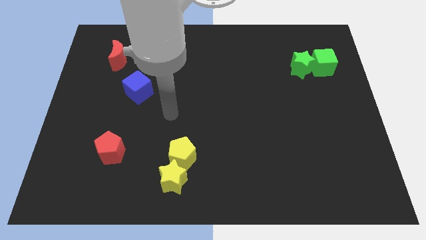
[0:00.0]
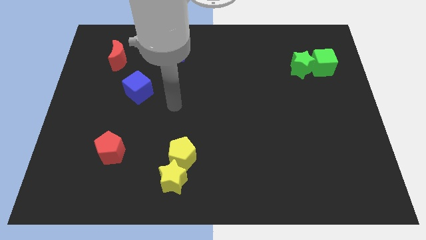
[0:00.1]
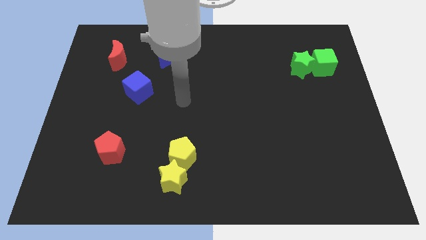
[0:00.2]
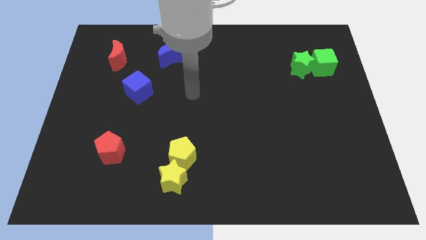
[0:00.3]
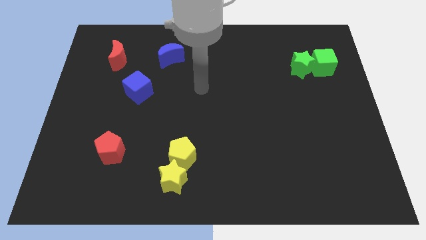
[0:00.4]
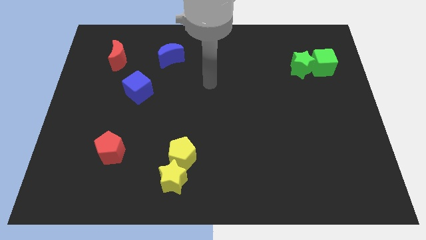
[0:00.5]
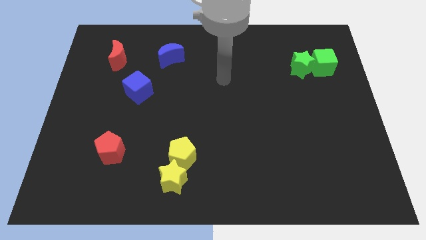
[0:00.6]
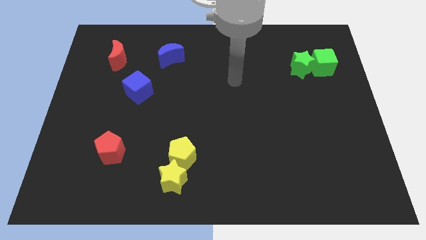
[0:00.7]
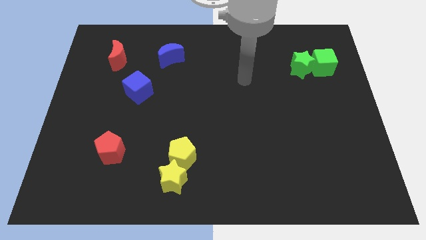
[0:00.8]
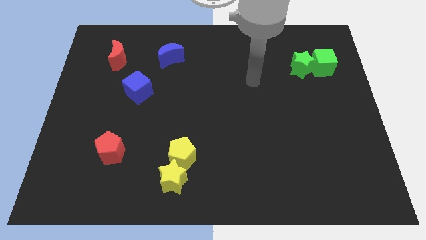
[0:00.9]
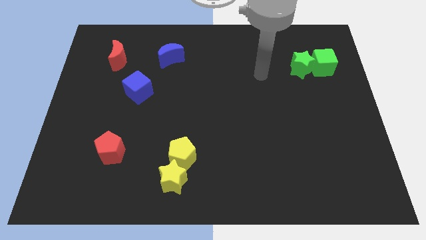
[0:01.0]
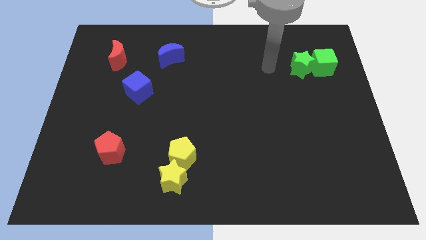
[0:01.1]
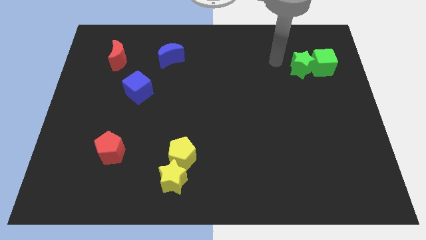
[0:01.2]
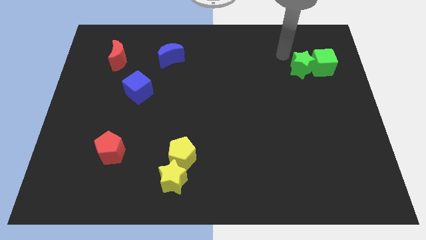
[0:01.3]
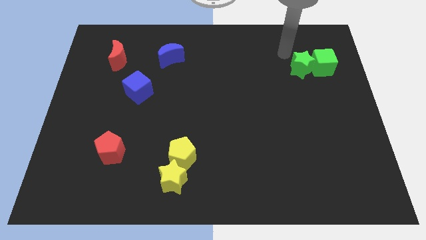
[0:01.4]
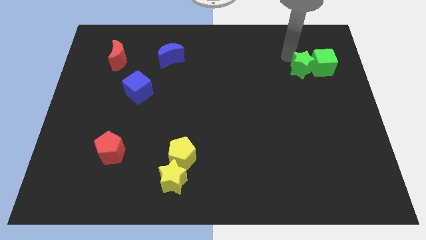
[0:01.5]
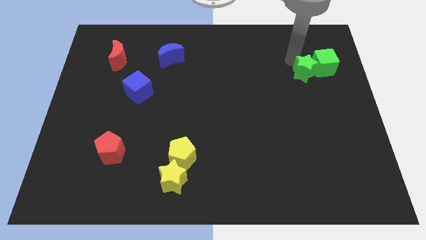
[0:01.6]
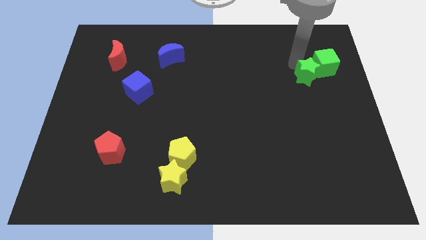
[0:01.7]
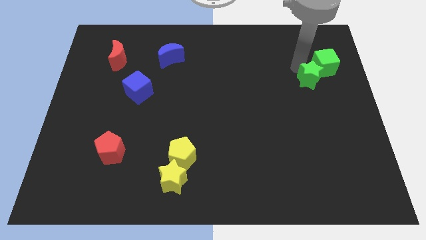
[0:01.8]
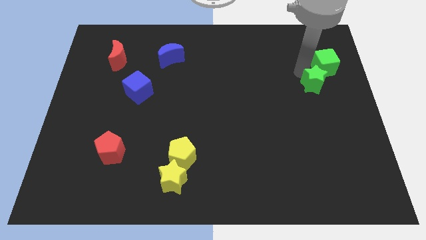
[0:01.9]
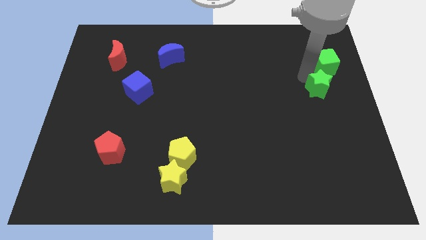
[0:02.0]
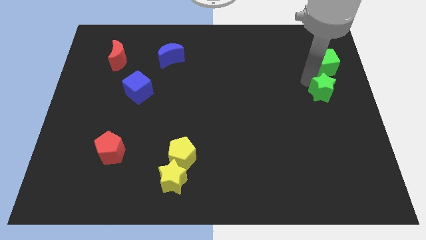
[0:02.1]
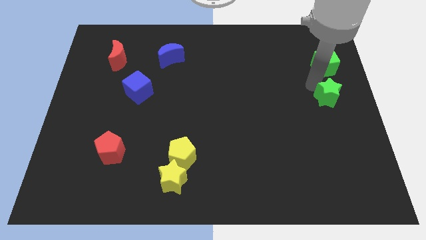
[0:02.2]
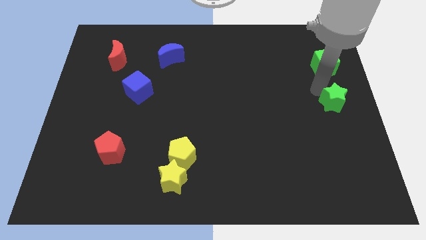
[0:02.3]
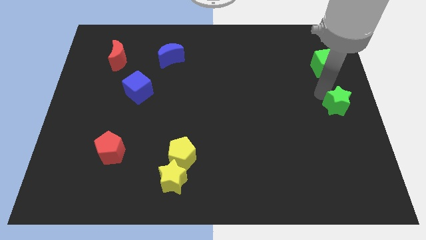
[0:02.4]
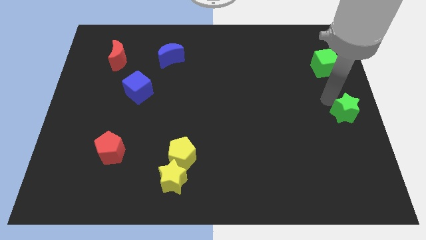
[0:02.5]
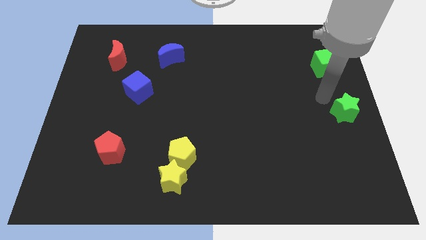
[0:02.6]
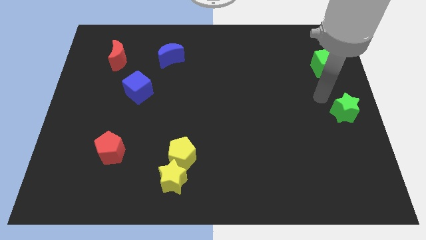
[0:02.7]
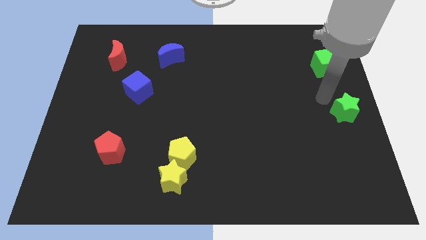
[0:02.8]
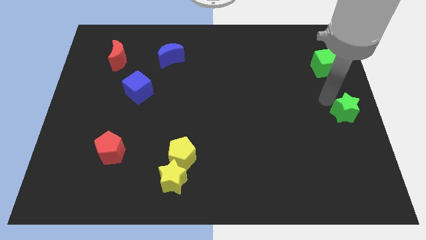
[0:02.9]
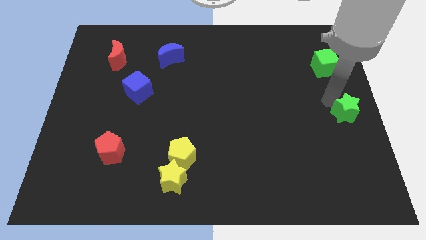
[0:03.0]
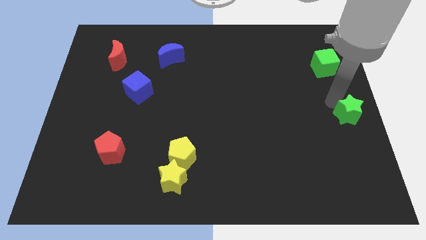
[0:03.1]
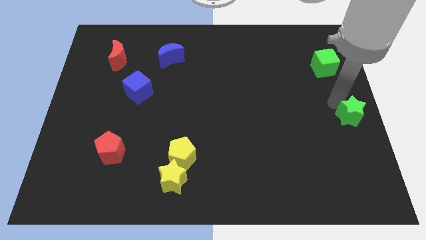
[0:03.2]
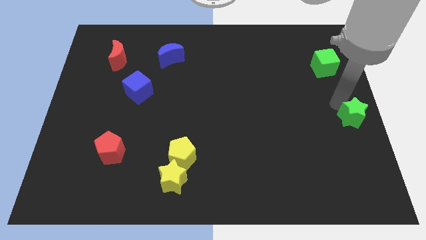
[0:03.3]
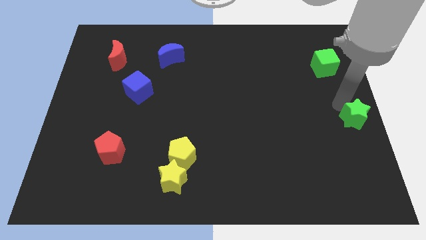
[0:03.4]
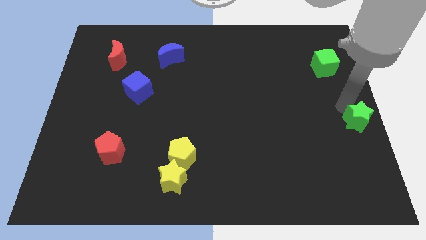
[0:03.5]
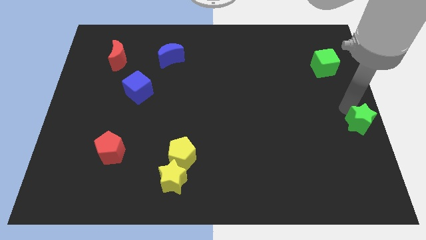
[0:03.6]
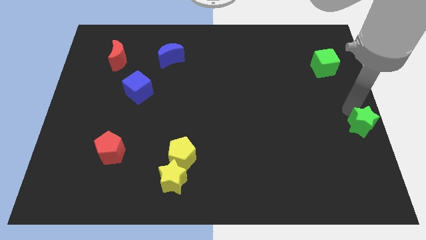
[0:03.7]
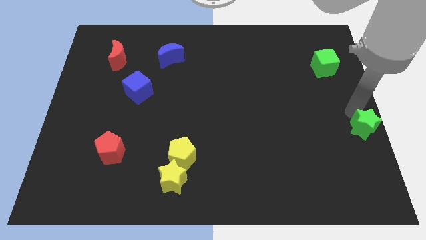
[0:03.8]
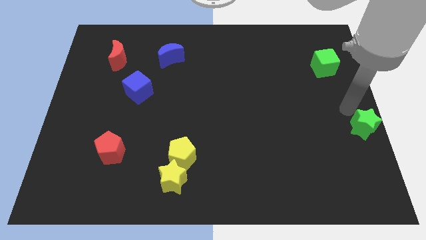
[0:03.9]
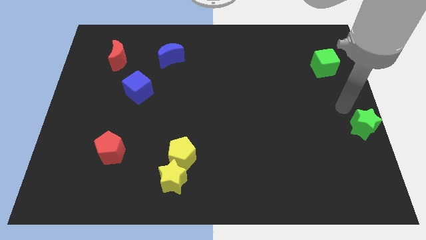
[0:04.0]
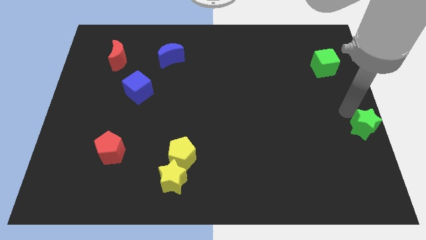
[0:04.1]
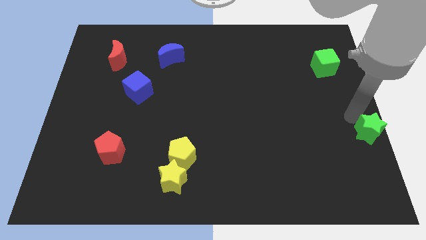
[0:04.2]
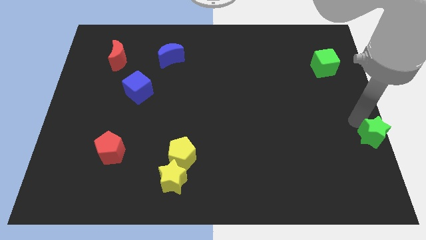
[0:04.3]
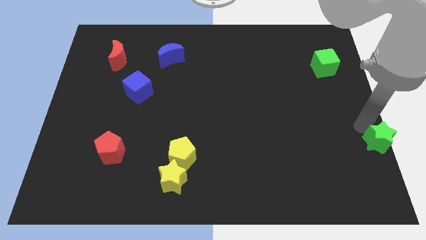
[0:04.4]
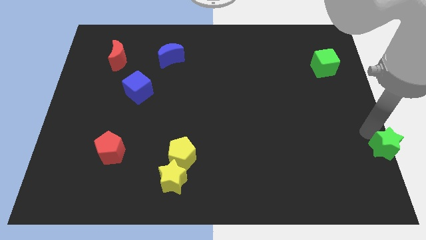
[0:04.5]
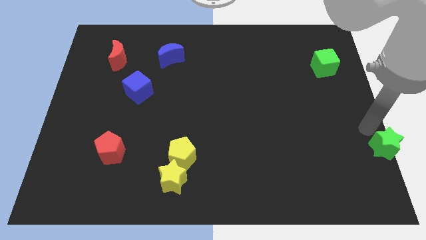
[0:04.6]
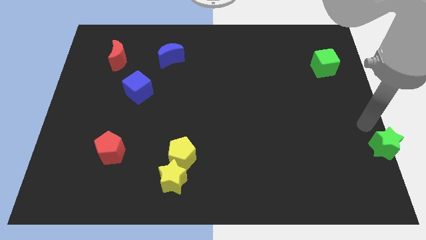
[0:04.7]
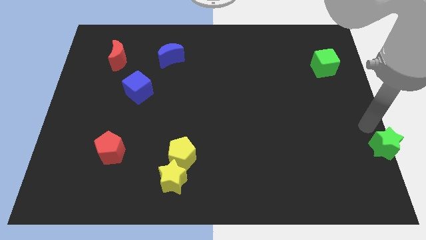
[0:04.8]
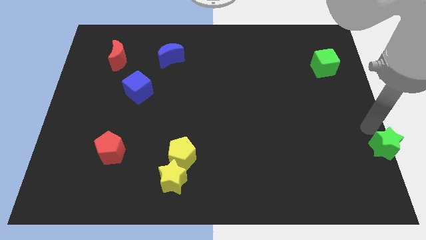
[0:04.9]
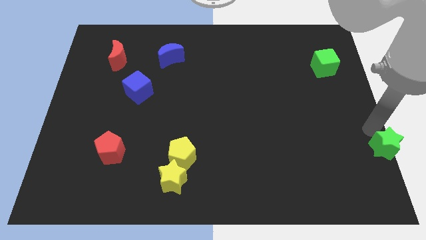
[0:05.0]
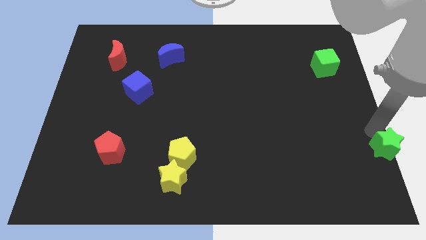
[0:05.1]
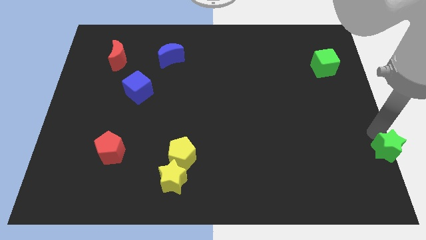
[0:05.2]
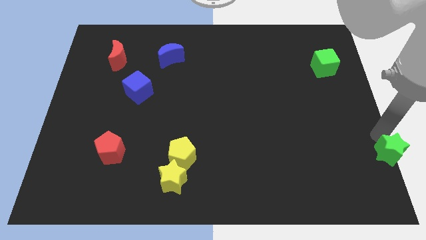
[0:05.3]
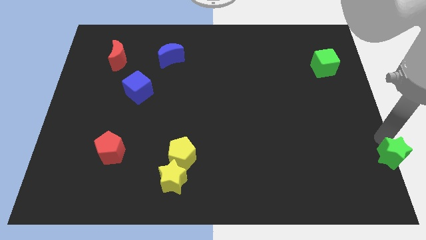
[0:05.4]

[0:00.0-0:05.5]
move the green star to the bottom right

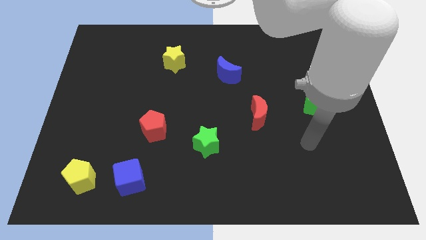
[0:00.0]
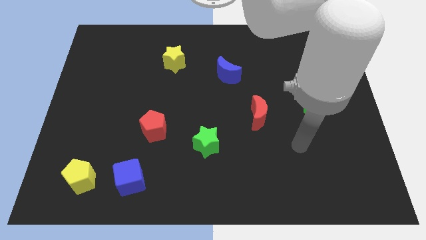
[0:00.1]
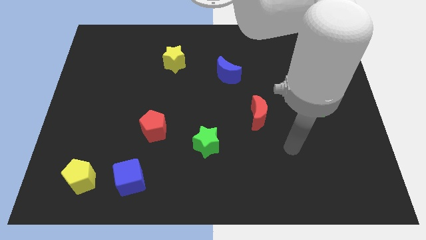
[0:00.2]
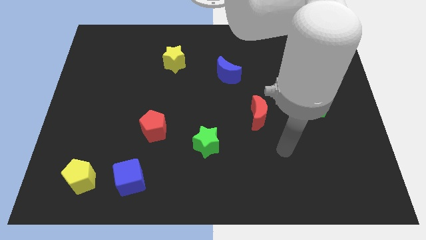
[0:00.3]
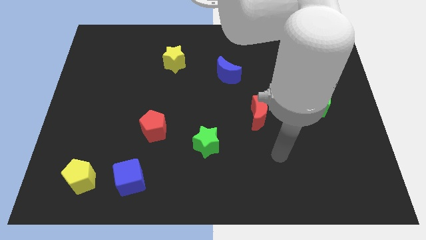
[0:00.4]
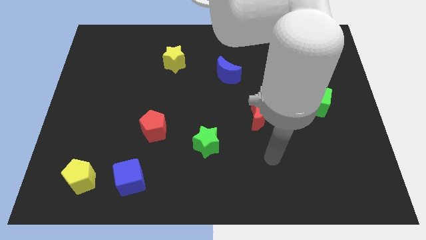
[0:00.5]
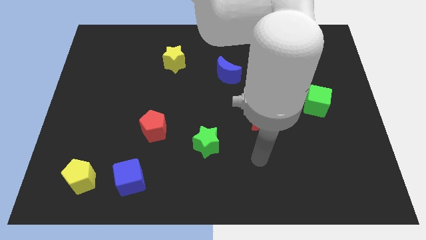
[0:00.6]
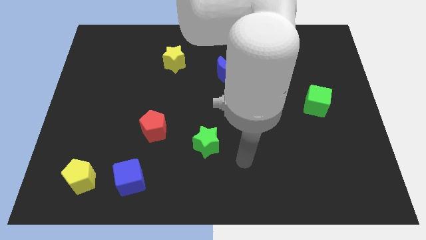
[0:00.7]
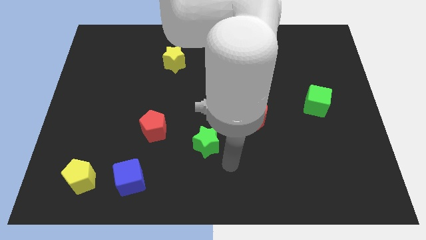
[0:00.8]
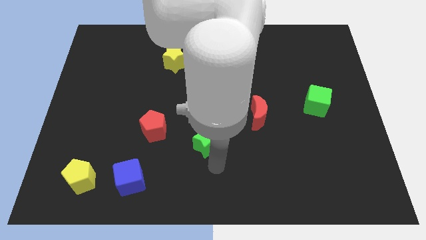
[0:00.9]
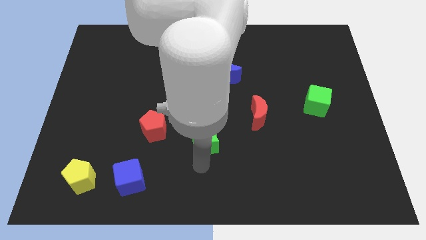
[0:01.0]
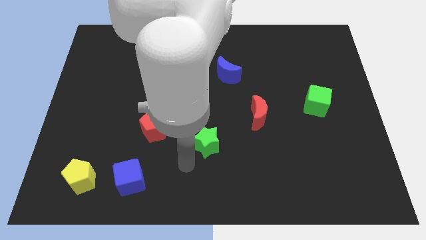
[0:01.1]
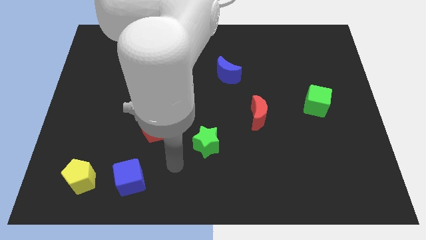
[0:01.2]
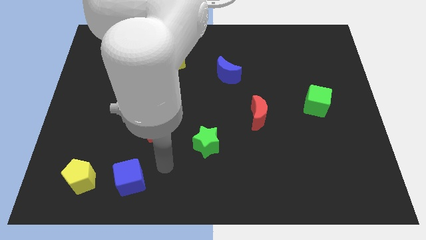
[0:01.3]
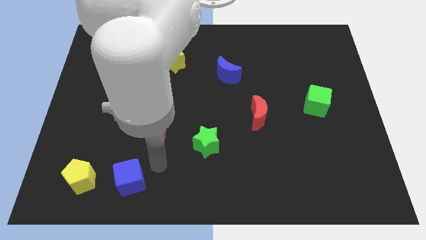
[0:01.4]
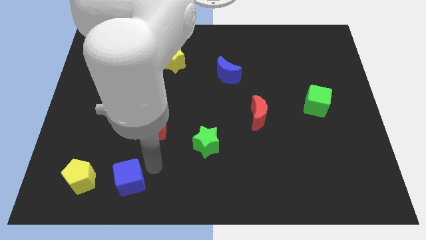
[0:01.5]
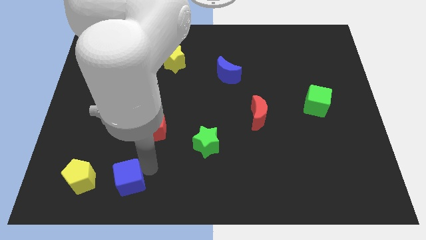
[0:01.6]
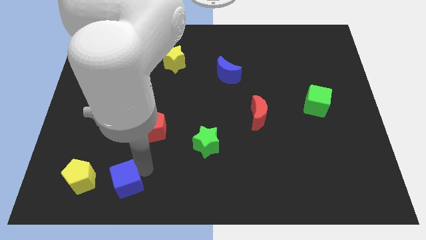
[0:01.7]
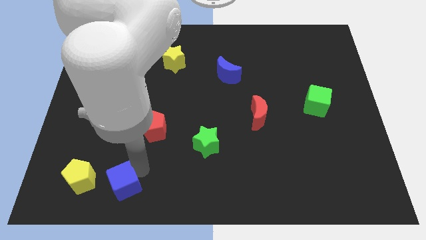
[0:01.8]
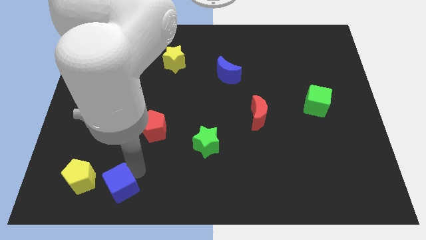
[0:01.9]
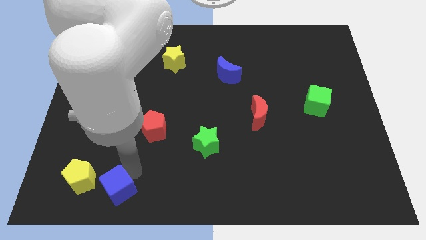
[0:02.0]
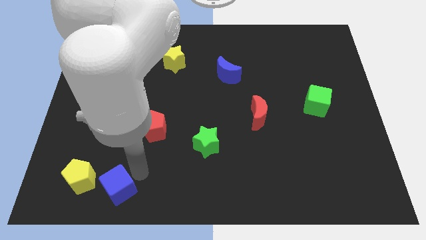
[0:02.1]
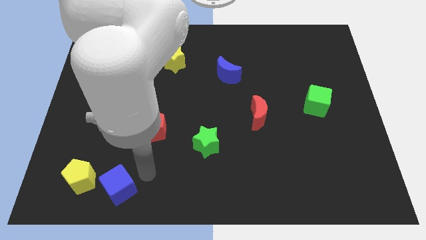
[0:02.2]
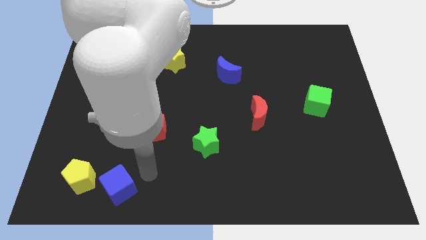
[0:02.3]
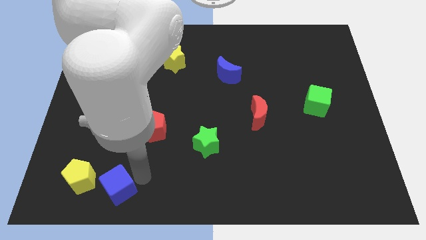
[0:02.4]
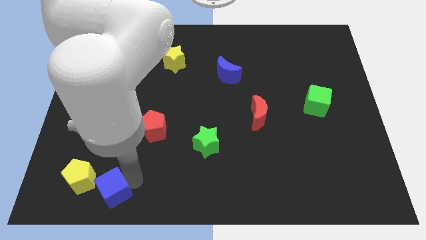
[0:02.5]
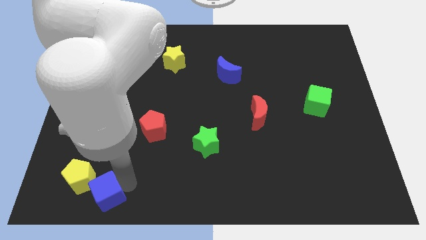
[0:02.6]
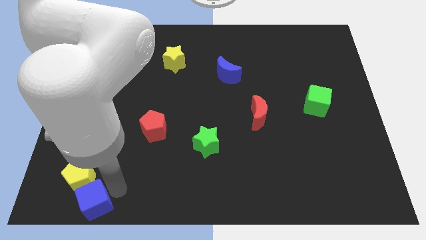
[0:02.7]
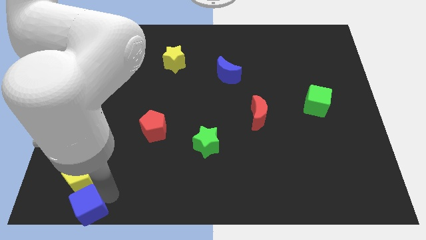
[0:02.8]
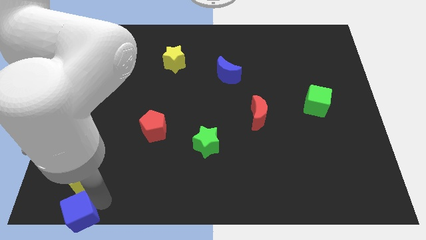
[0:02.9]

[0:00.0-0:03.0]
move the blue cube to the bottom left of the board
